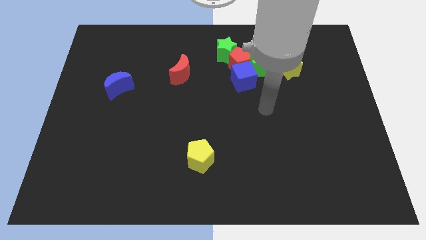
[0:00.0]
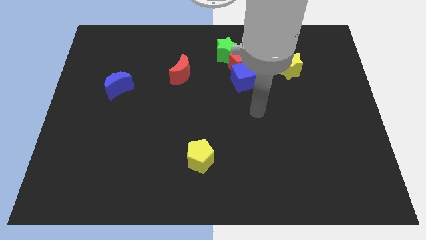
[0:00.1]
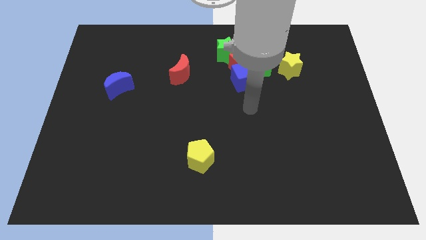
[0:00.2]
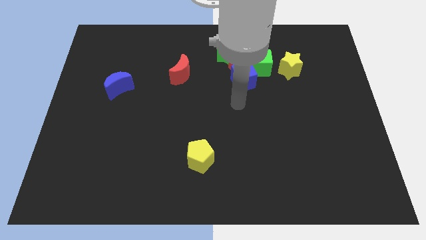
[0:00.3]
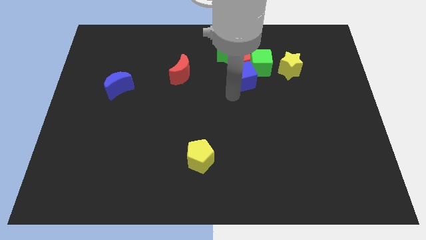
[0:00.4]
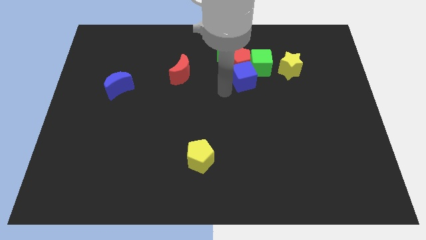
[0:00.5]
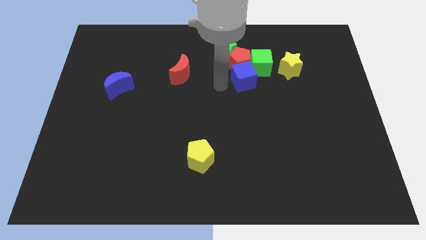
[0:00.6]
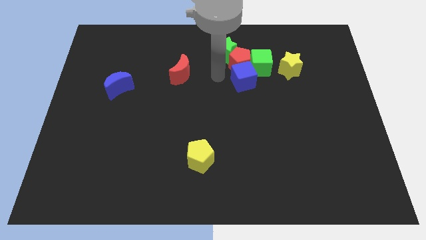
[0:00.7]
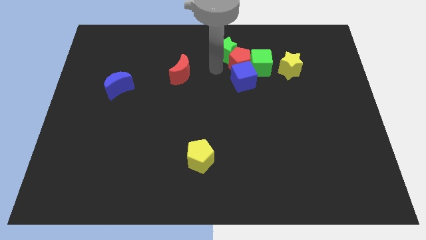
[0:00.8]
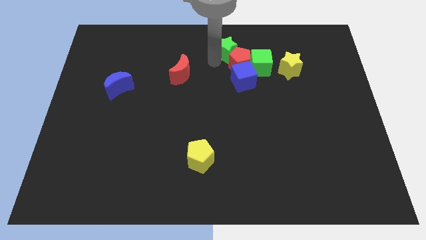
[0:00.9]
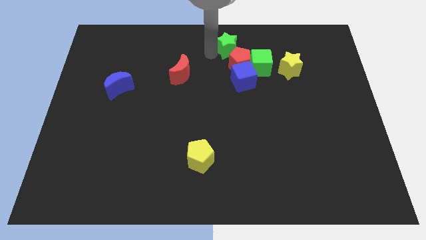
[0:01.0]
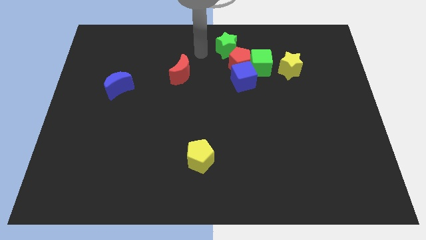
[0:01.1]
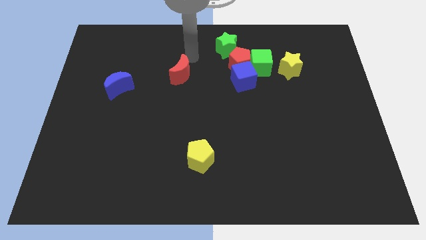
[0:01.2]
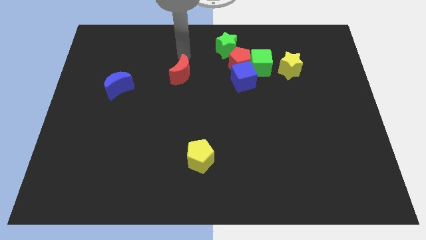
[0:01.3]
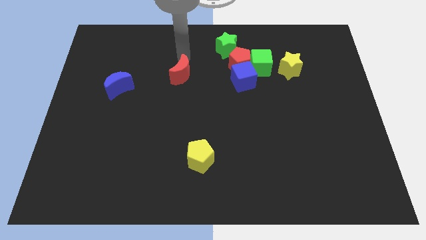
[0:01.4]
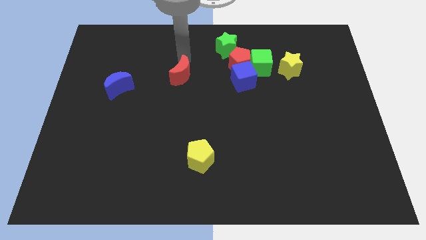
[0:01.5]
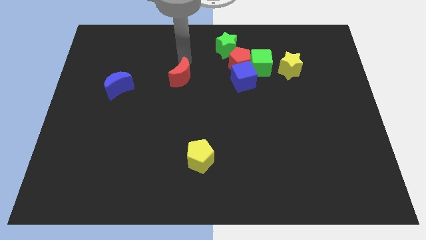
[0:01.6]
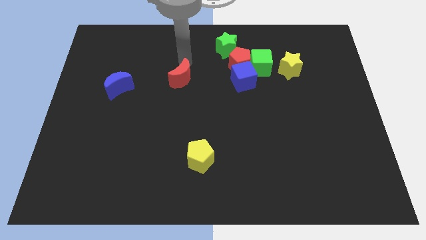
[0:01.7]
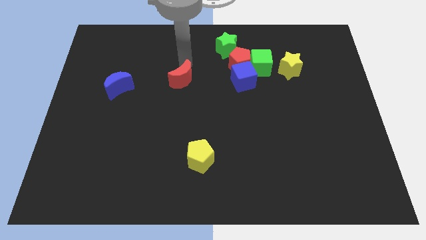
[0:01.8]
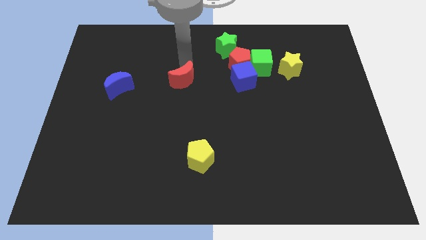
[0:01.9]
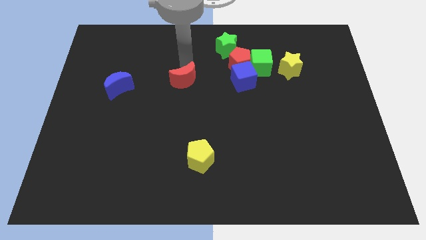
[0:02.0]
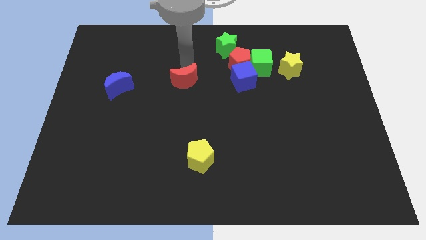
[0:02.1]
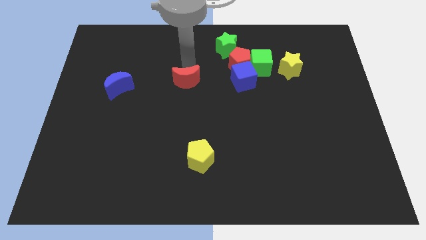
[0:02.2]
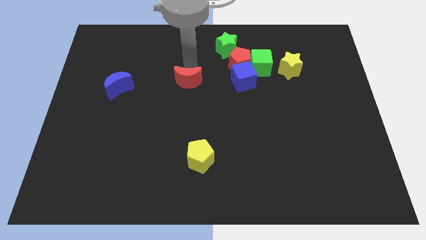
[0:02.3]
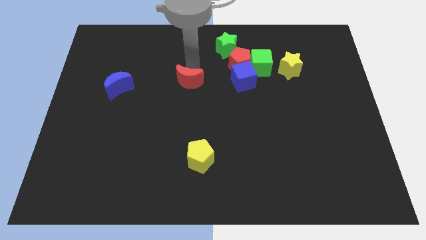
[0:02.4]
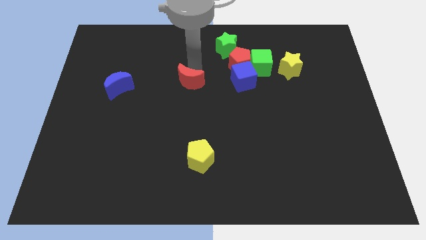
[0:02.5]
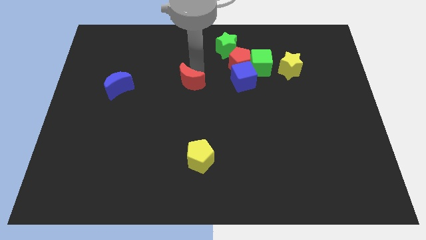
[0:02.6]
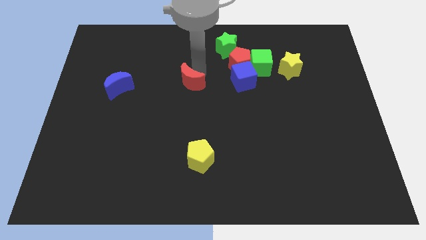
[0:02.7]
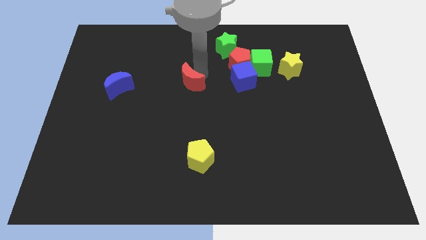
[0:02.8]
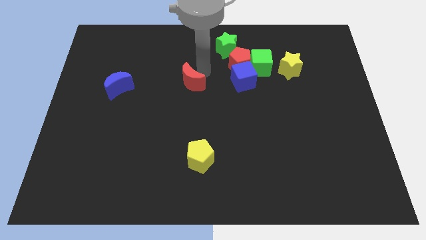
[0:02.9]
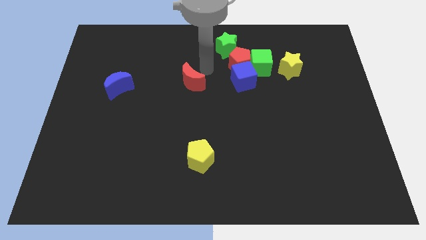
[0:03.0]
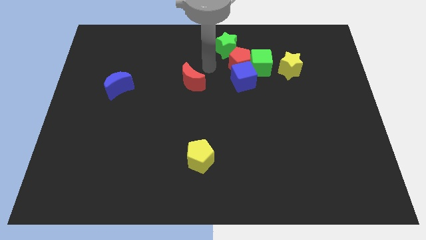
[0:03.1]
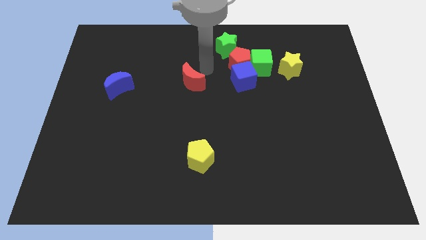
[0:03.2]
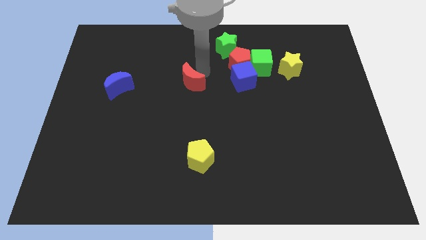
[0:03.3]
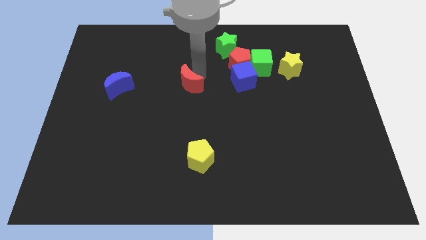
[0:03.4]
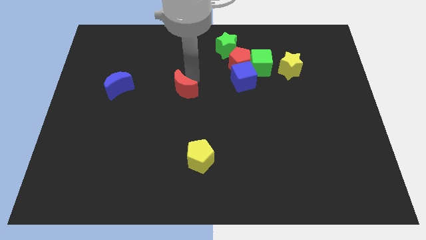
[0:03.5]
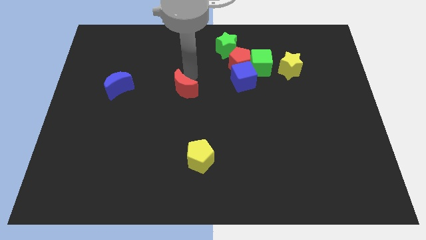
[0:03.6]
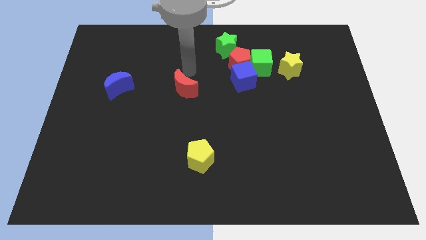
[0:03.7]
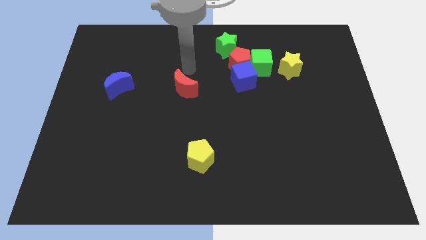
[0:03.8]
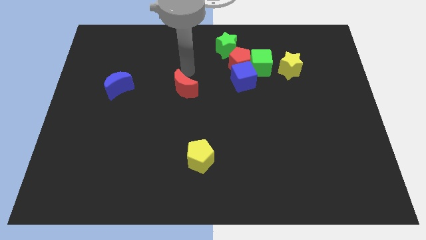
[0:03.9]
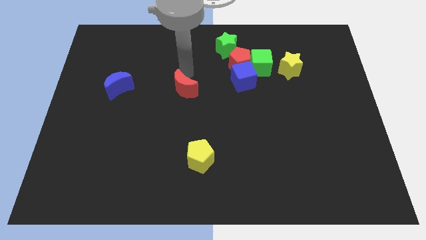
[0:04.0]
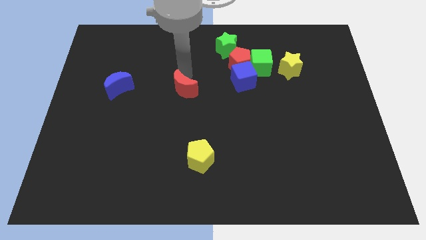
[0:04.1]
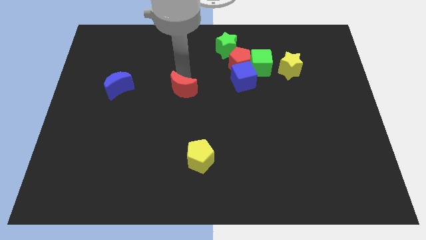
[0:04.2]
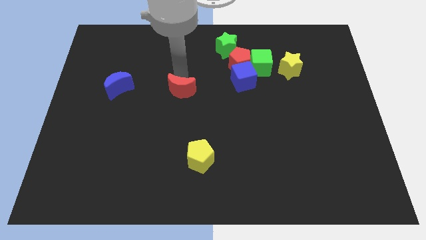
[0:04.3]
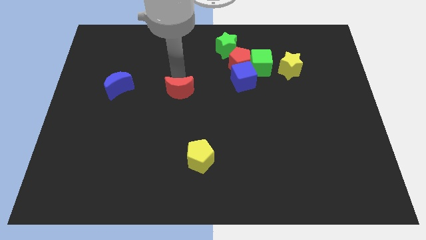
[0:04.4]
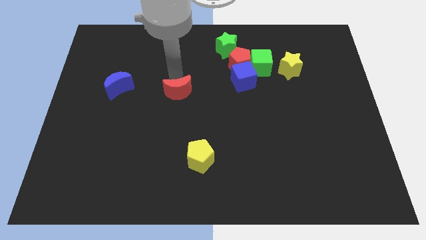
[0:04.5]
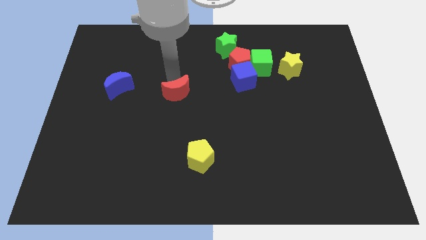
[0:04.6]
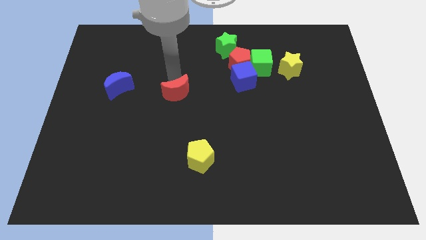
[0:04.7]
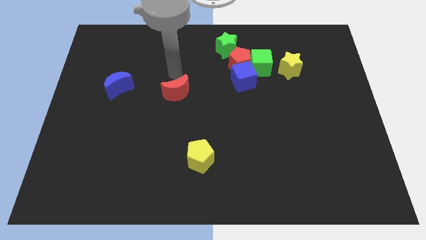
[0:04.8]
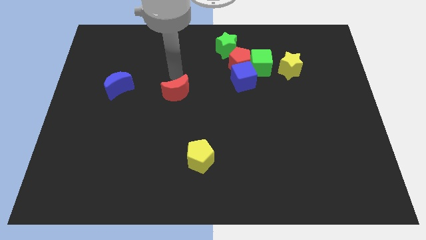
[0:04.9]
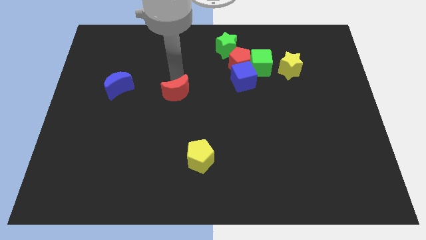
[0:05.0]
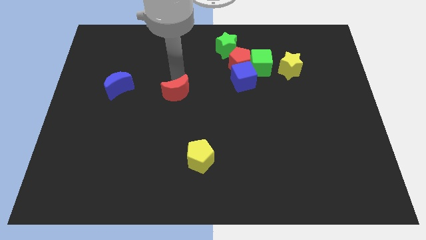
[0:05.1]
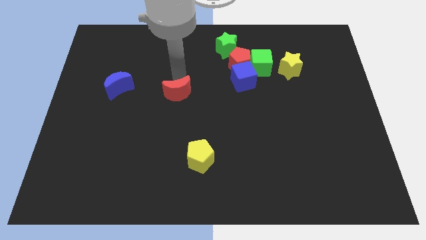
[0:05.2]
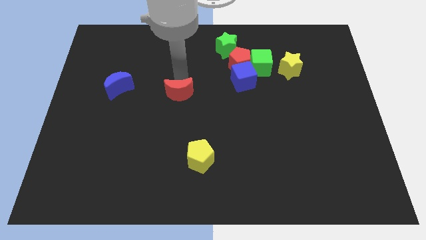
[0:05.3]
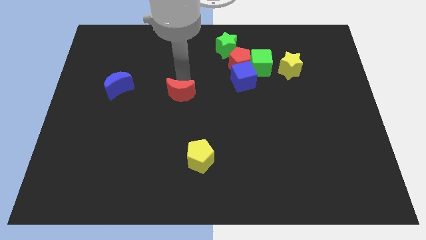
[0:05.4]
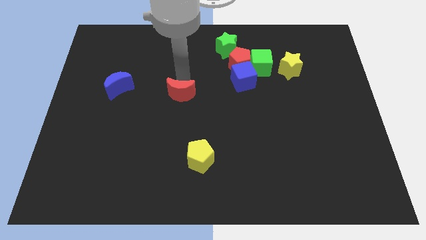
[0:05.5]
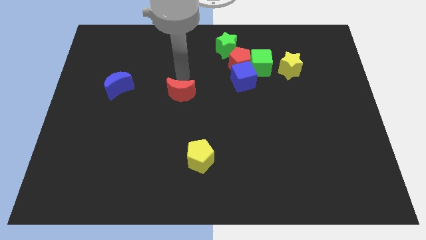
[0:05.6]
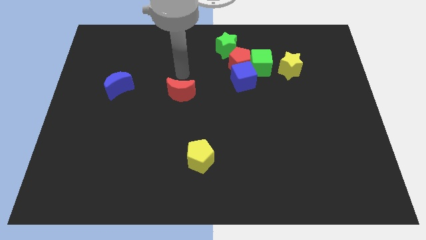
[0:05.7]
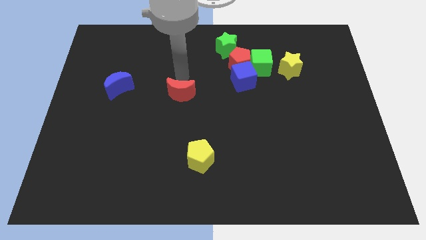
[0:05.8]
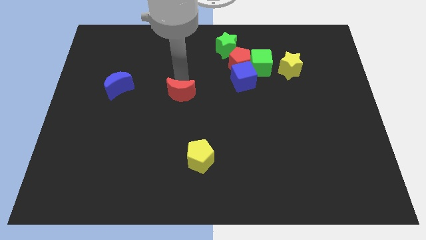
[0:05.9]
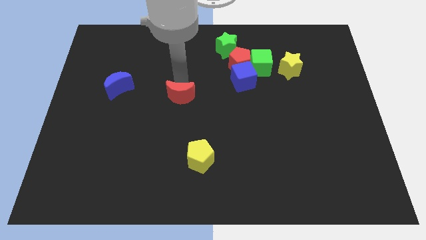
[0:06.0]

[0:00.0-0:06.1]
slightly move the red moon downwards

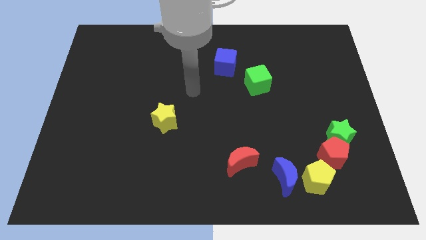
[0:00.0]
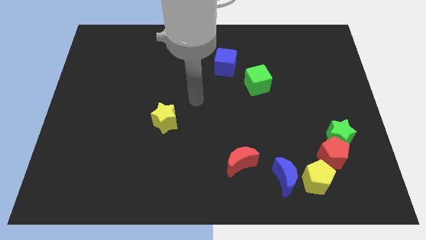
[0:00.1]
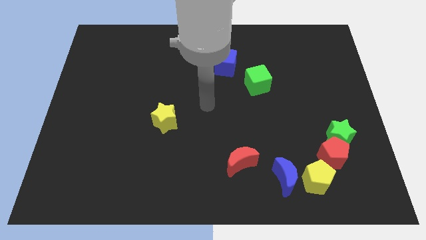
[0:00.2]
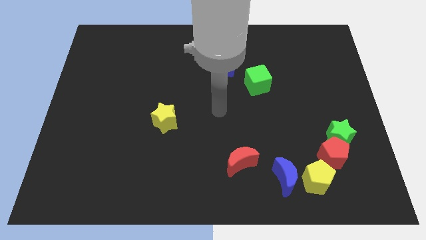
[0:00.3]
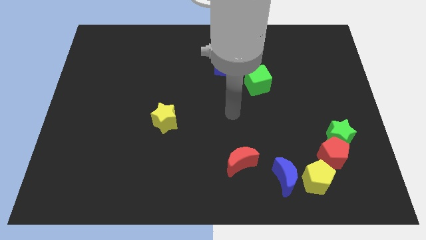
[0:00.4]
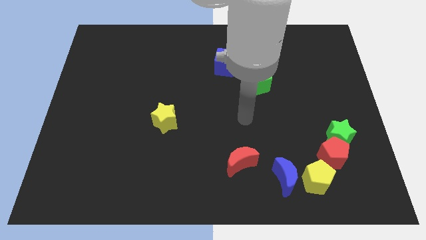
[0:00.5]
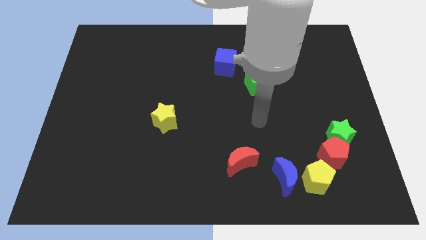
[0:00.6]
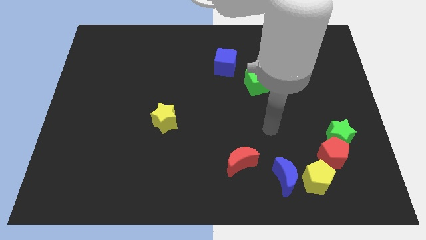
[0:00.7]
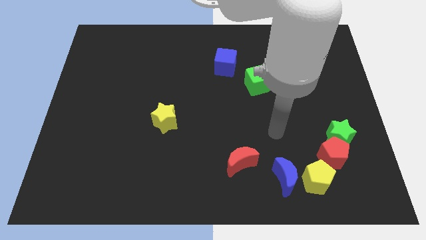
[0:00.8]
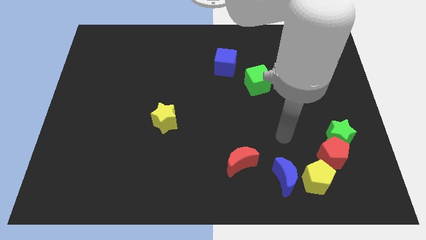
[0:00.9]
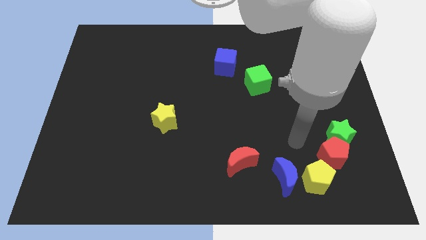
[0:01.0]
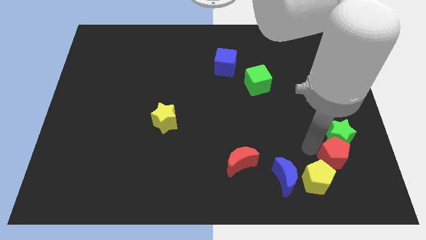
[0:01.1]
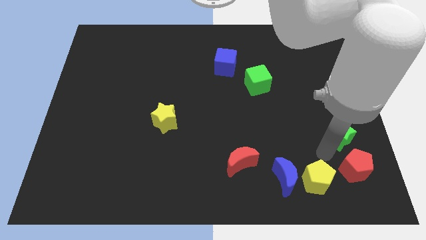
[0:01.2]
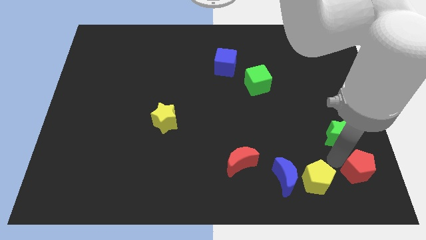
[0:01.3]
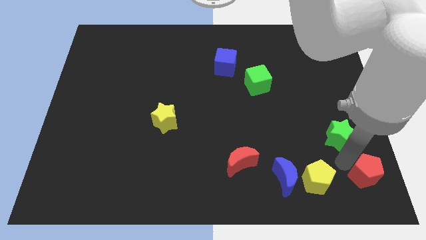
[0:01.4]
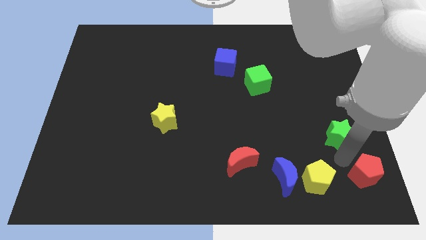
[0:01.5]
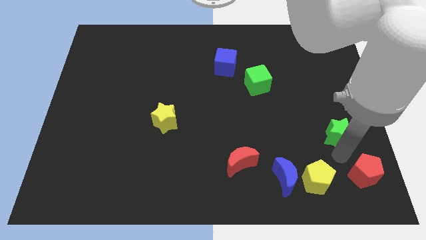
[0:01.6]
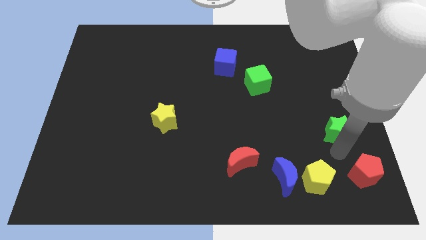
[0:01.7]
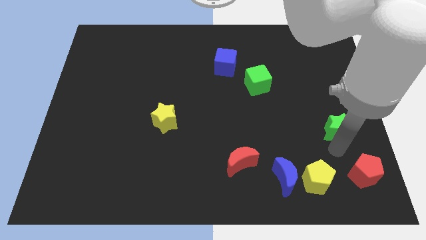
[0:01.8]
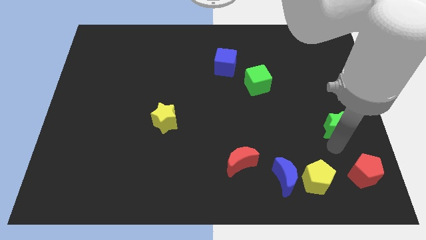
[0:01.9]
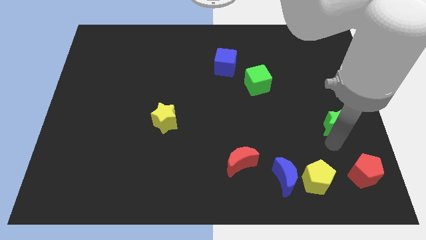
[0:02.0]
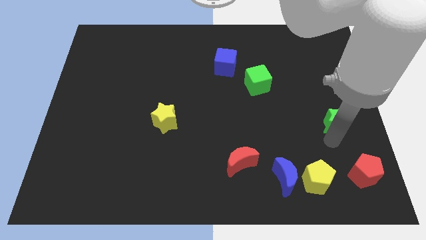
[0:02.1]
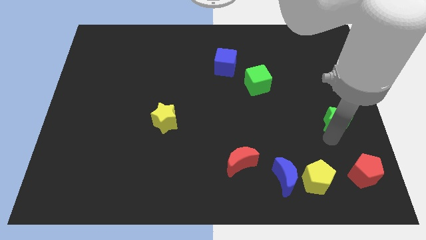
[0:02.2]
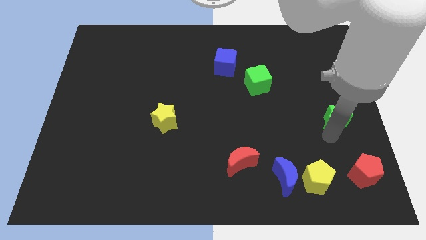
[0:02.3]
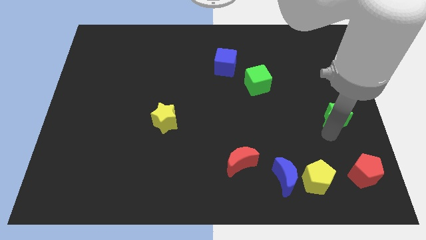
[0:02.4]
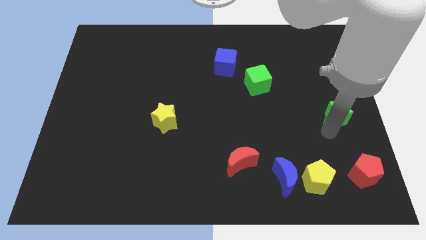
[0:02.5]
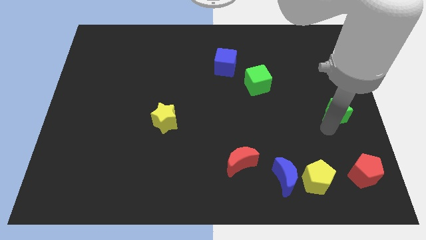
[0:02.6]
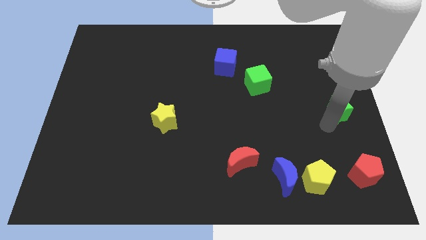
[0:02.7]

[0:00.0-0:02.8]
move the green star a bit up
